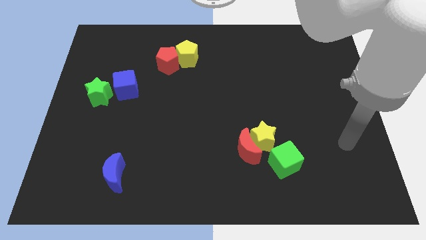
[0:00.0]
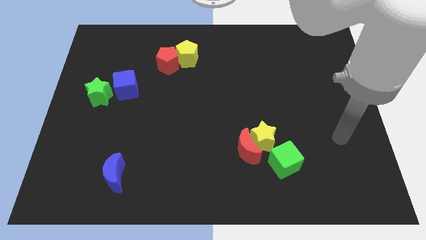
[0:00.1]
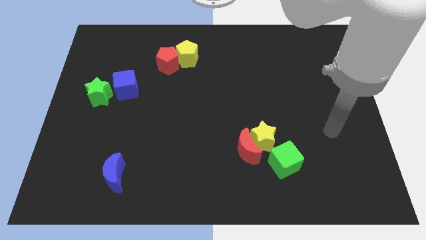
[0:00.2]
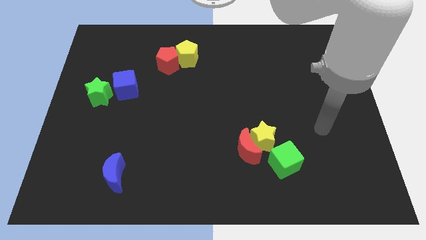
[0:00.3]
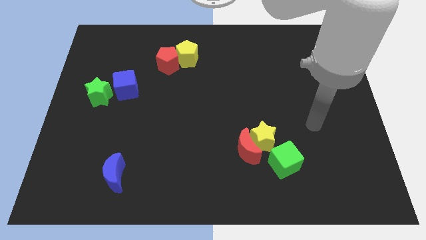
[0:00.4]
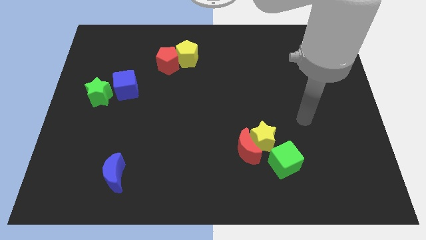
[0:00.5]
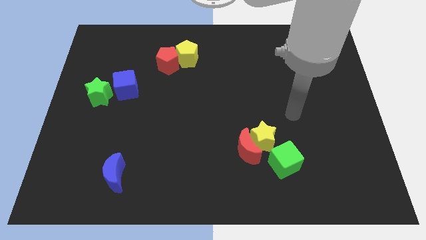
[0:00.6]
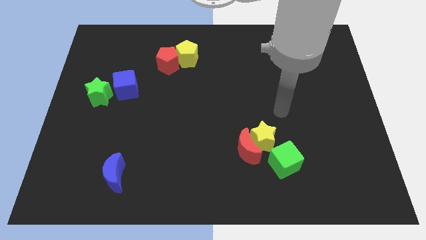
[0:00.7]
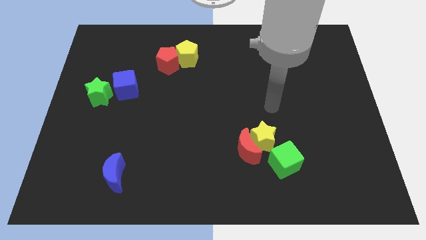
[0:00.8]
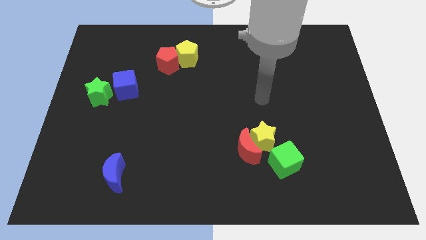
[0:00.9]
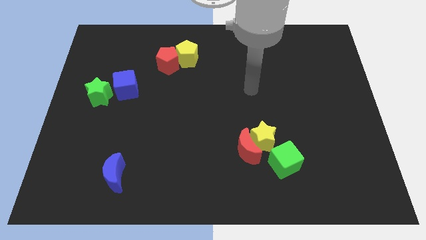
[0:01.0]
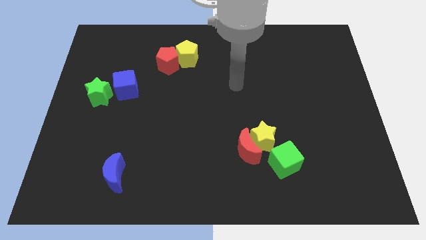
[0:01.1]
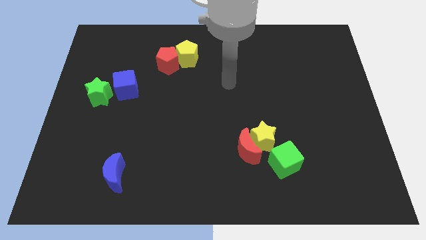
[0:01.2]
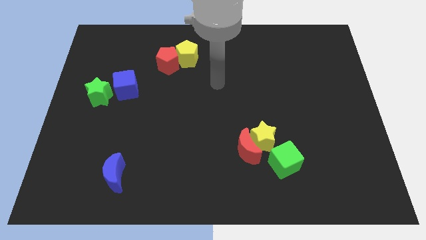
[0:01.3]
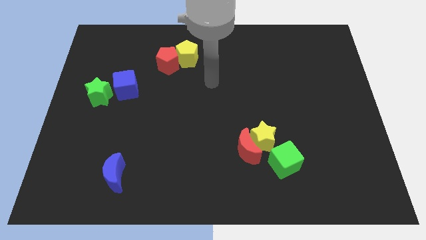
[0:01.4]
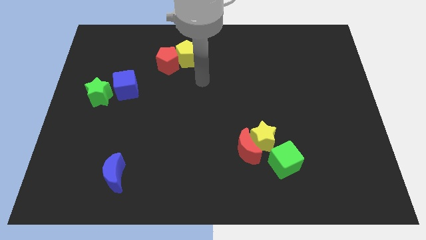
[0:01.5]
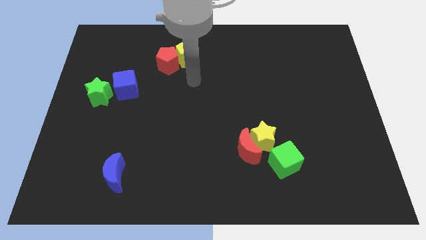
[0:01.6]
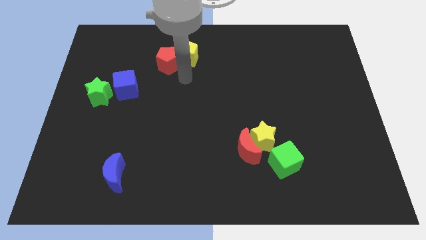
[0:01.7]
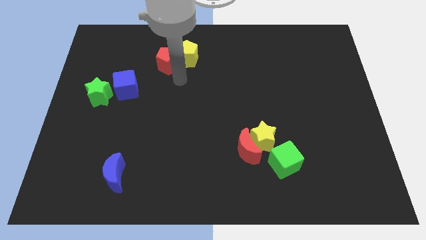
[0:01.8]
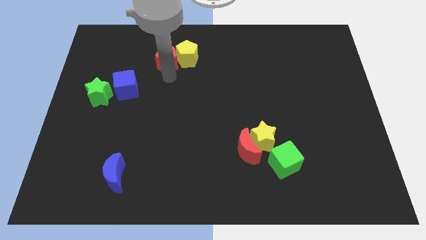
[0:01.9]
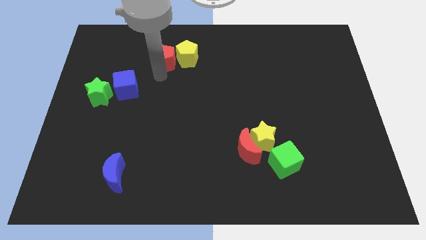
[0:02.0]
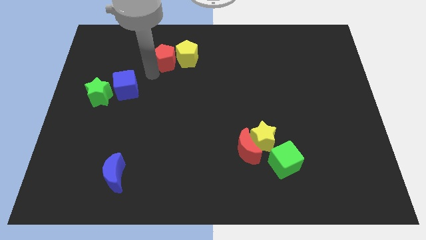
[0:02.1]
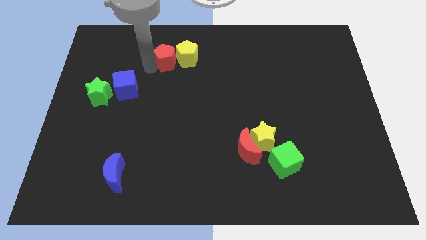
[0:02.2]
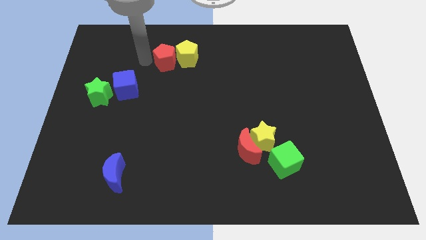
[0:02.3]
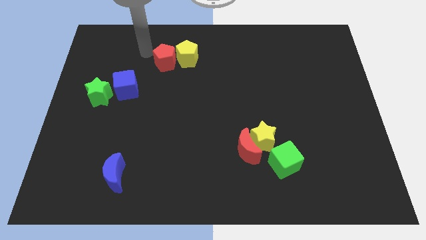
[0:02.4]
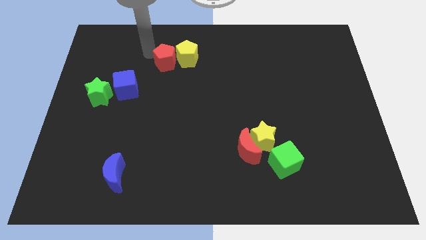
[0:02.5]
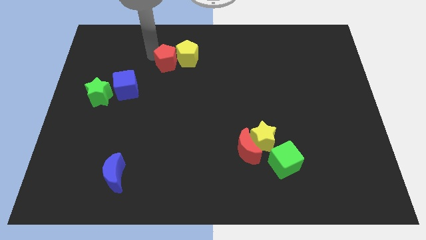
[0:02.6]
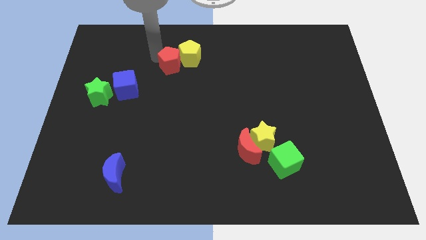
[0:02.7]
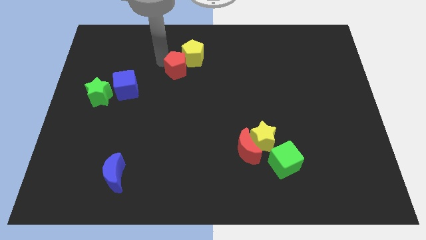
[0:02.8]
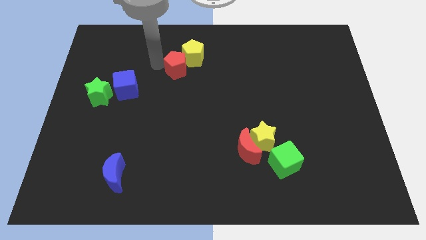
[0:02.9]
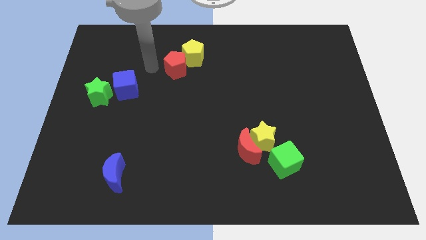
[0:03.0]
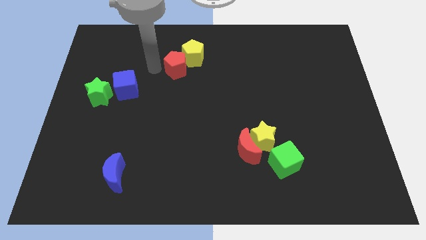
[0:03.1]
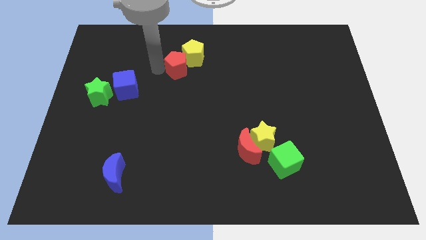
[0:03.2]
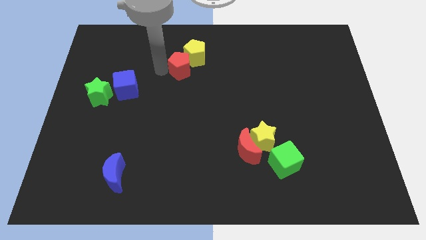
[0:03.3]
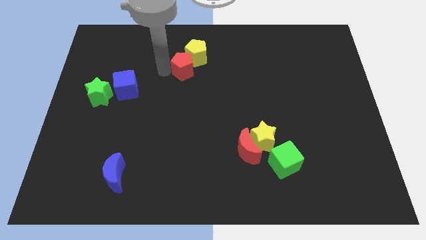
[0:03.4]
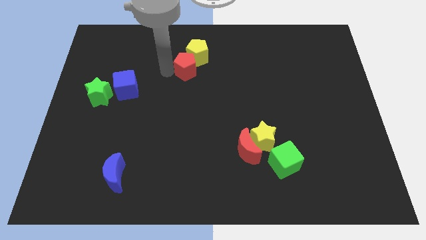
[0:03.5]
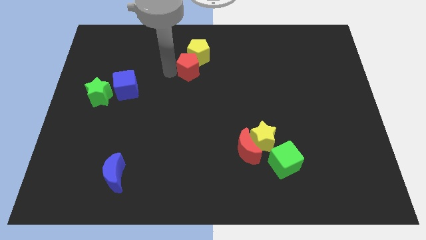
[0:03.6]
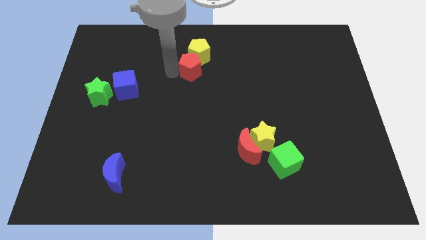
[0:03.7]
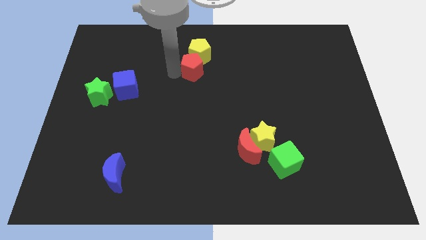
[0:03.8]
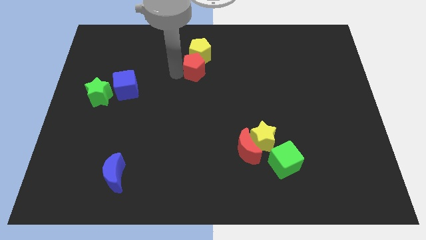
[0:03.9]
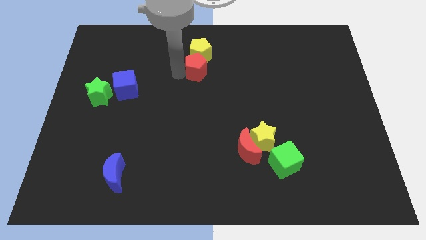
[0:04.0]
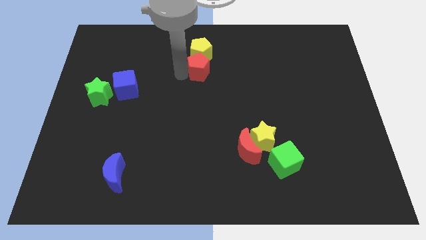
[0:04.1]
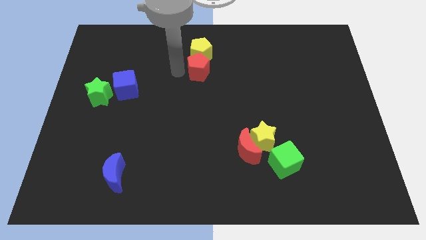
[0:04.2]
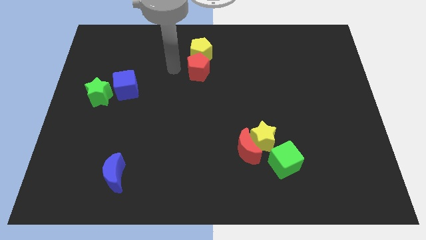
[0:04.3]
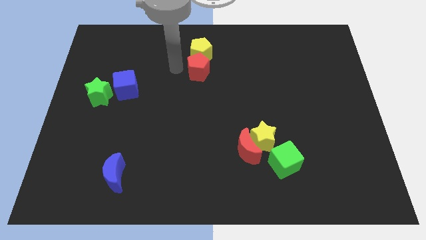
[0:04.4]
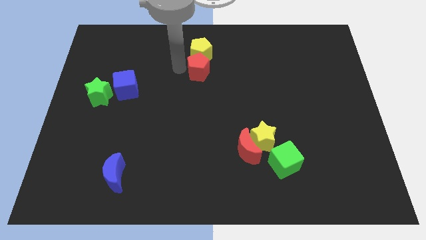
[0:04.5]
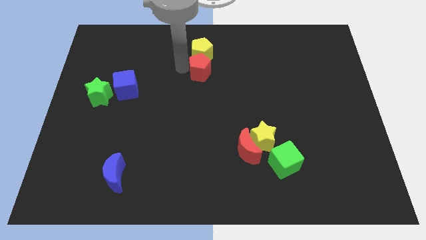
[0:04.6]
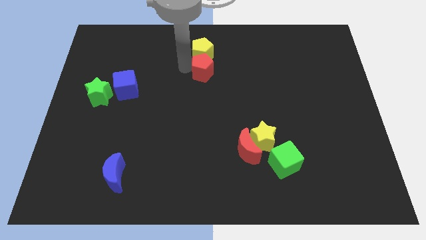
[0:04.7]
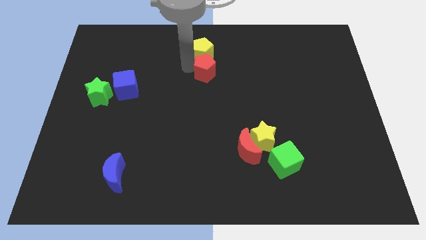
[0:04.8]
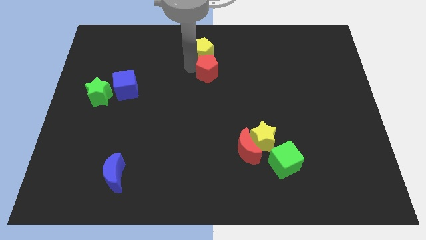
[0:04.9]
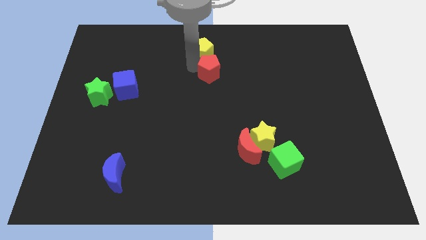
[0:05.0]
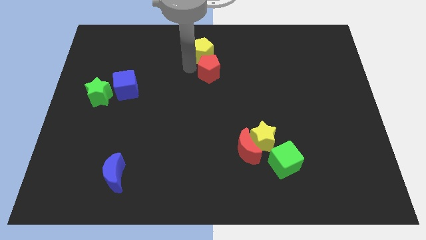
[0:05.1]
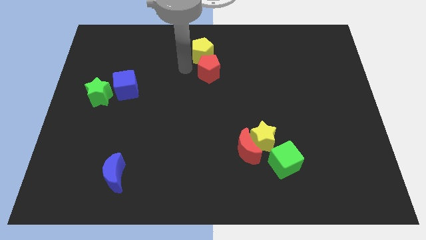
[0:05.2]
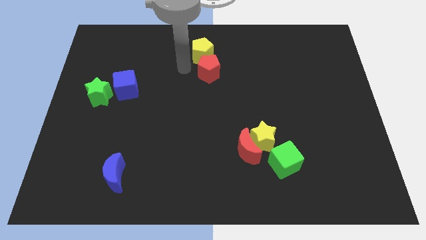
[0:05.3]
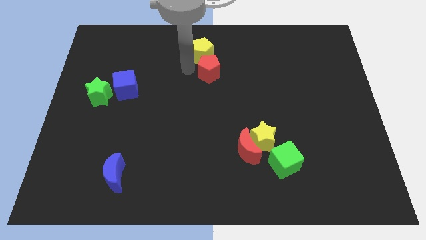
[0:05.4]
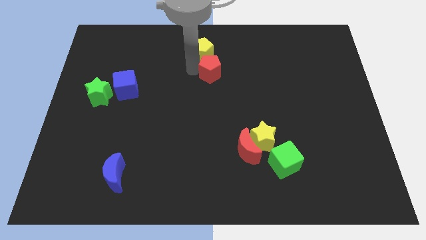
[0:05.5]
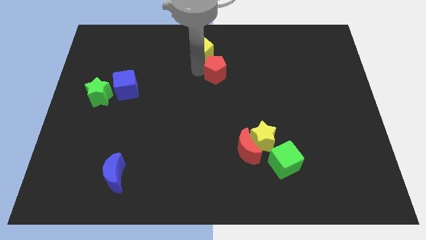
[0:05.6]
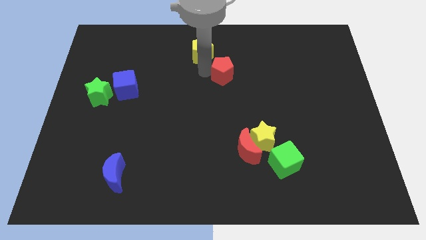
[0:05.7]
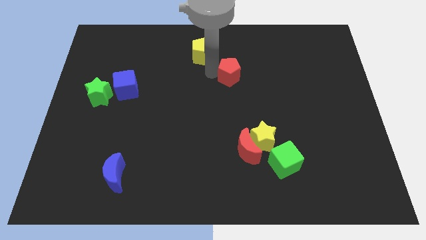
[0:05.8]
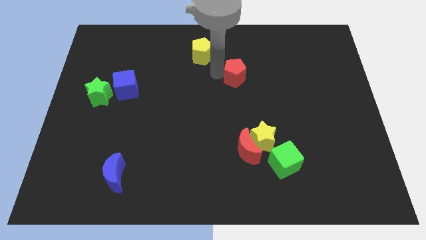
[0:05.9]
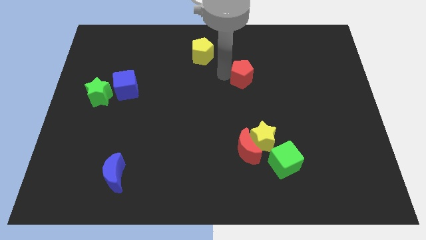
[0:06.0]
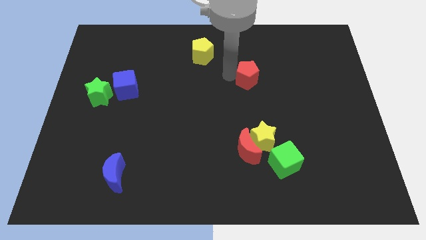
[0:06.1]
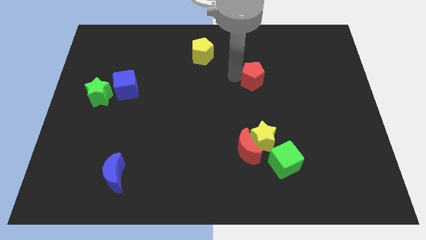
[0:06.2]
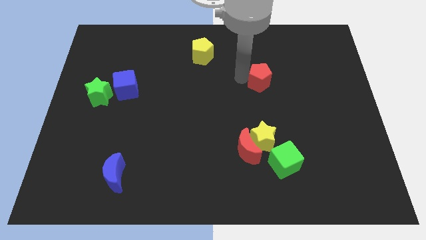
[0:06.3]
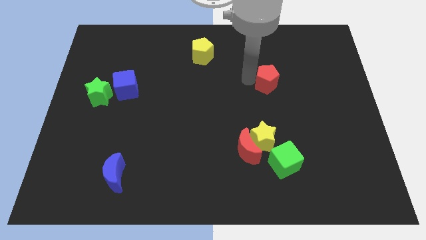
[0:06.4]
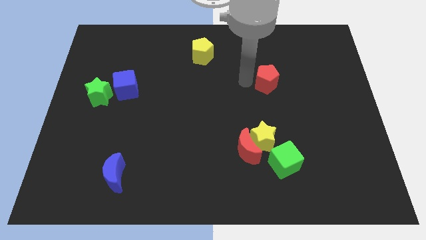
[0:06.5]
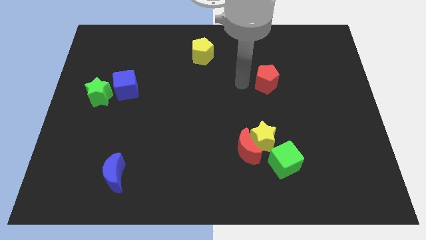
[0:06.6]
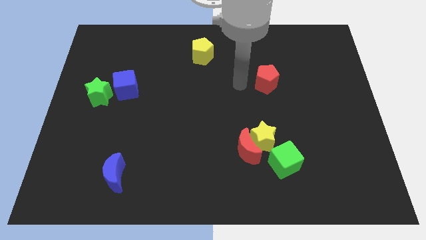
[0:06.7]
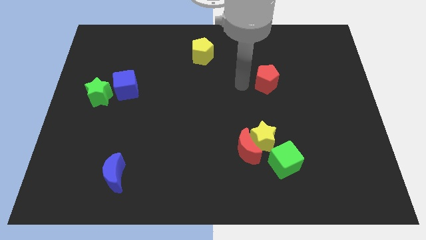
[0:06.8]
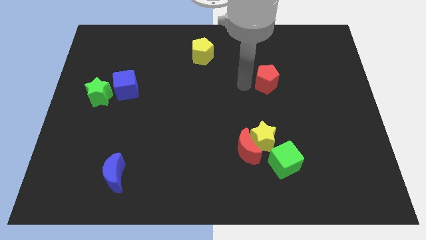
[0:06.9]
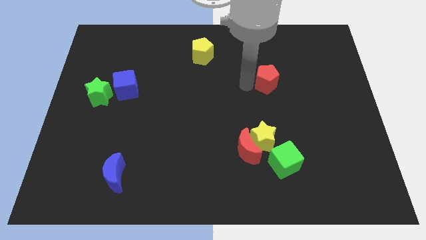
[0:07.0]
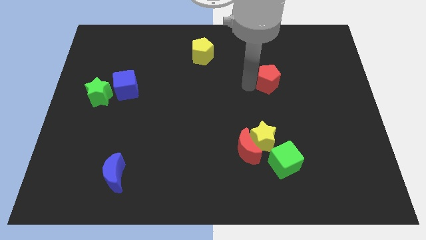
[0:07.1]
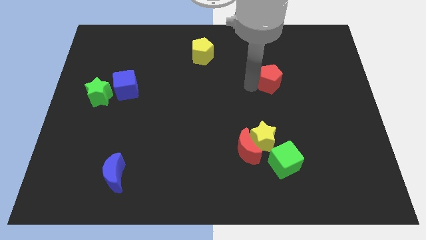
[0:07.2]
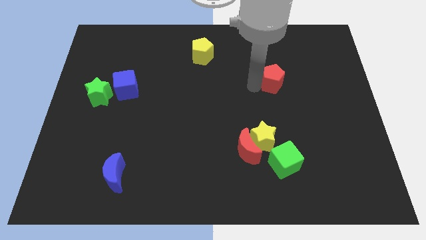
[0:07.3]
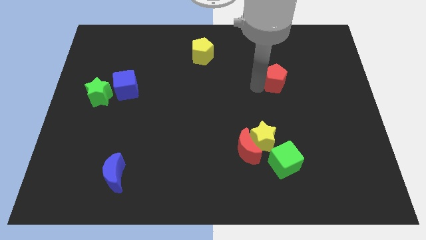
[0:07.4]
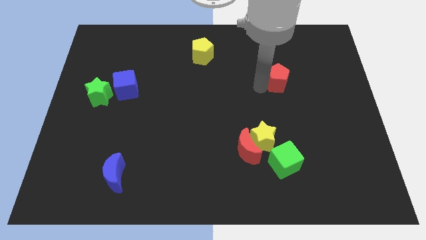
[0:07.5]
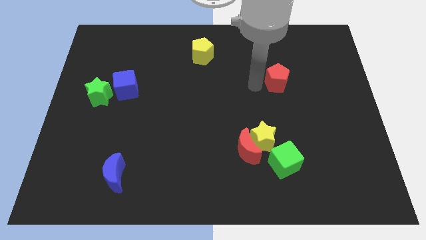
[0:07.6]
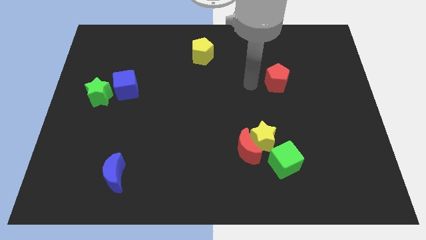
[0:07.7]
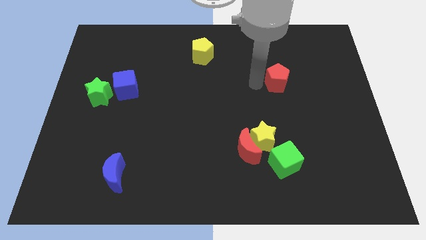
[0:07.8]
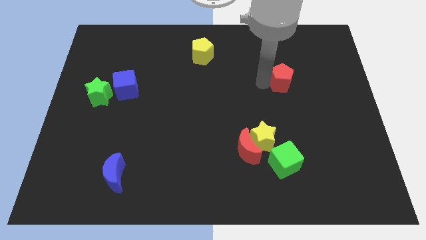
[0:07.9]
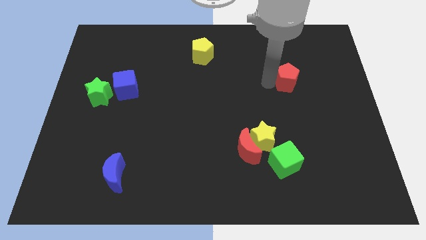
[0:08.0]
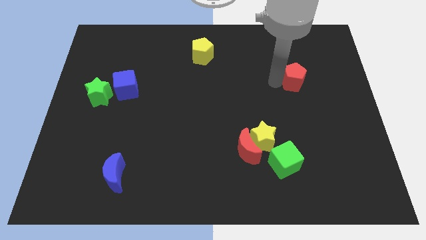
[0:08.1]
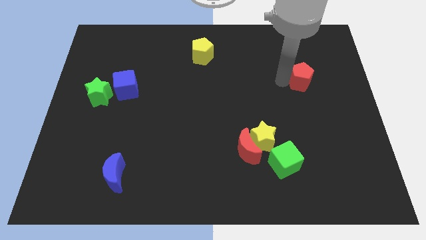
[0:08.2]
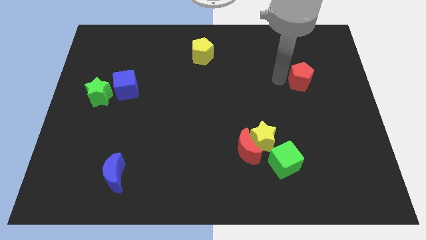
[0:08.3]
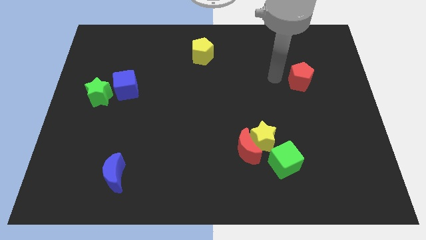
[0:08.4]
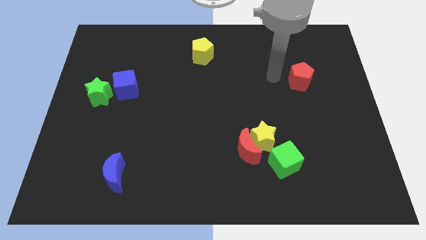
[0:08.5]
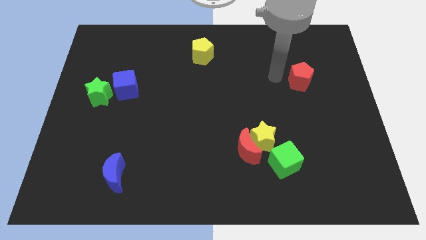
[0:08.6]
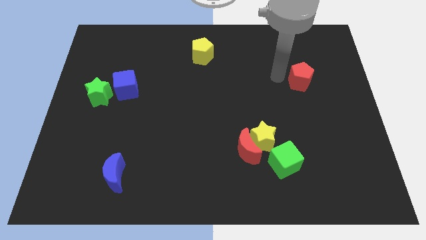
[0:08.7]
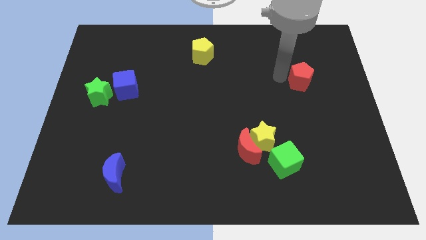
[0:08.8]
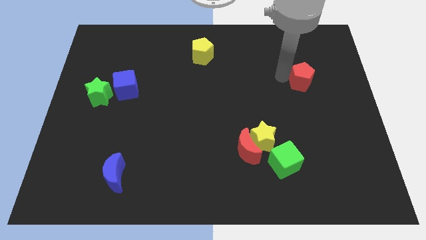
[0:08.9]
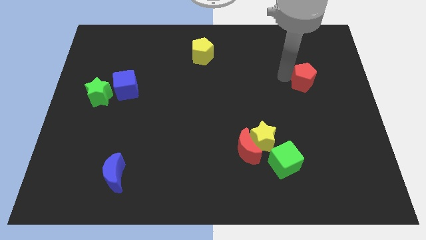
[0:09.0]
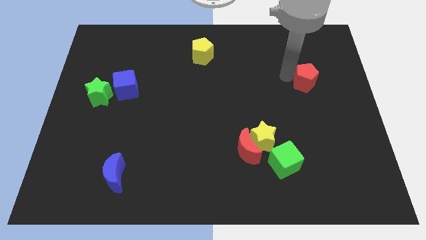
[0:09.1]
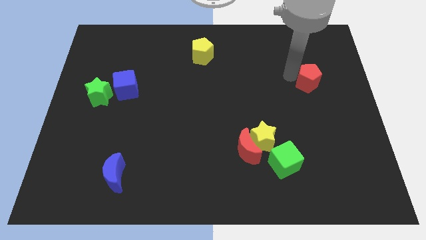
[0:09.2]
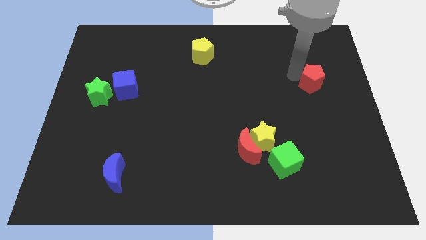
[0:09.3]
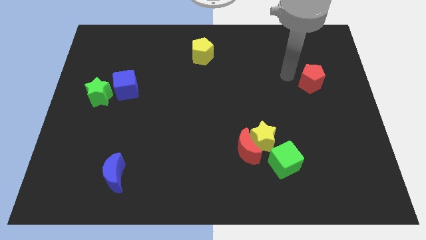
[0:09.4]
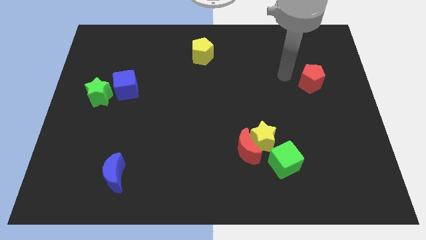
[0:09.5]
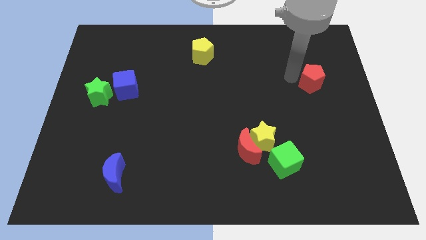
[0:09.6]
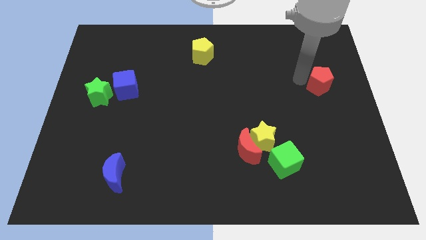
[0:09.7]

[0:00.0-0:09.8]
push the red pentagon to the right side of the board
